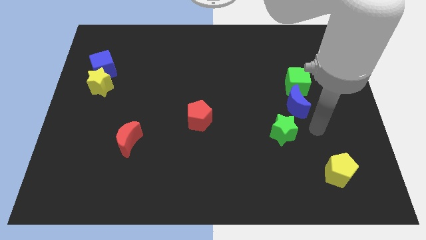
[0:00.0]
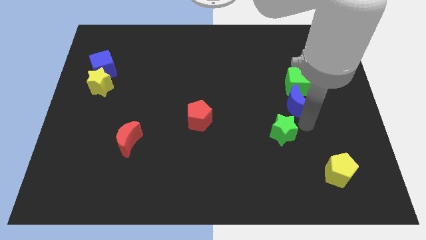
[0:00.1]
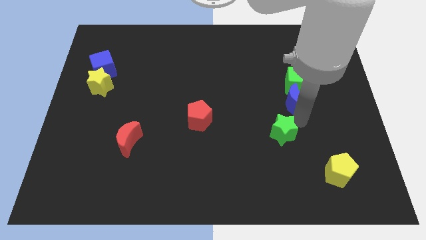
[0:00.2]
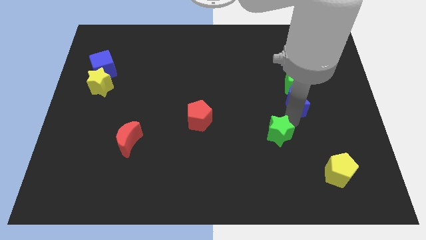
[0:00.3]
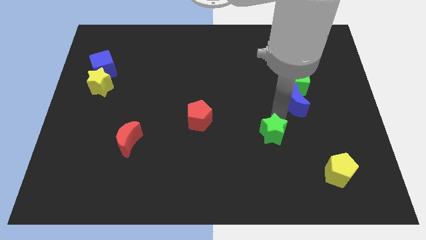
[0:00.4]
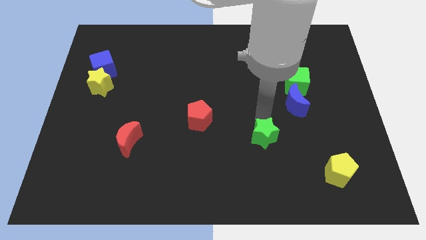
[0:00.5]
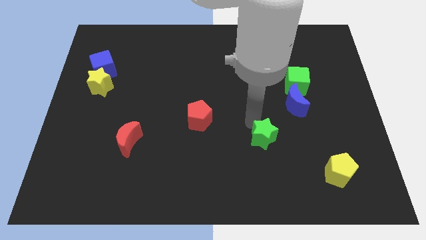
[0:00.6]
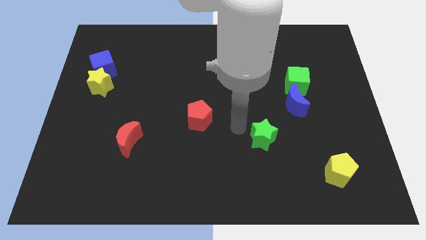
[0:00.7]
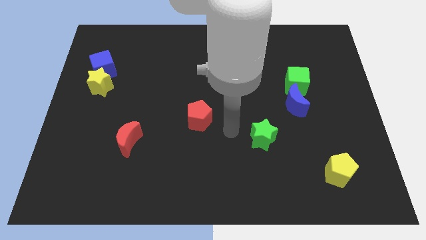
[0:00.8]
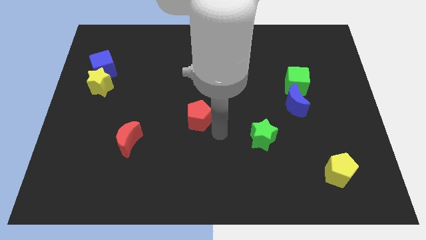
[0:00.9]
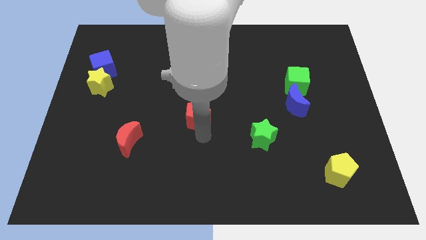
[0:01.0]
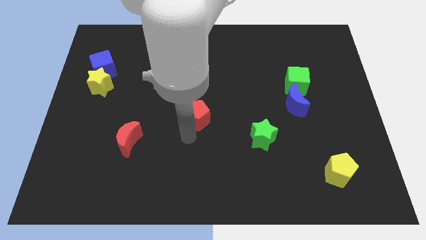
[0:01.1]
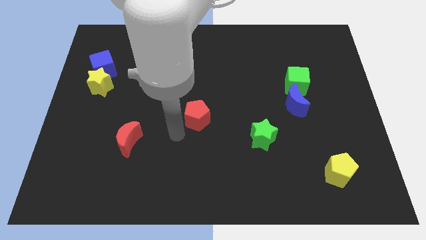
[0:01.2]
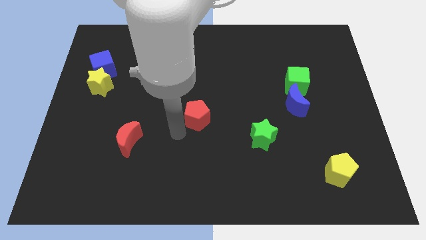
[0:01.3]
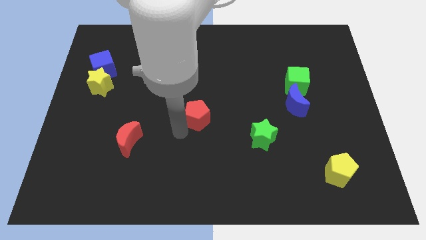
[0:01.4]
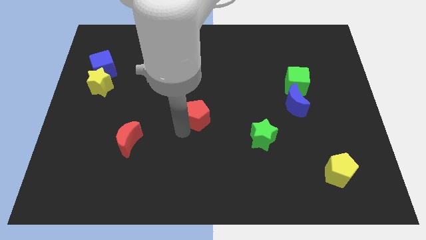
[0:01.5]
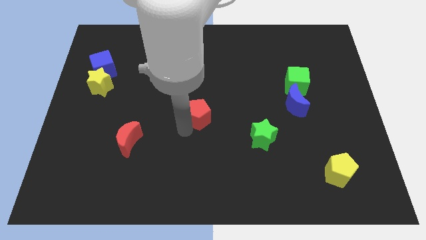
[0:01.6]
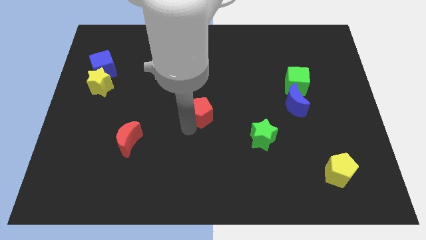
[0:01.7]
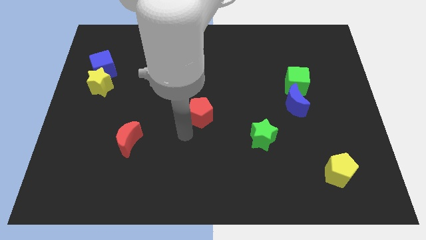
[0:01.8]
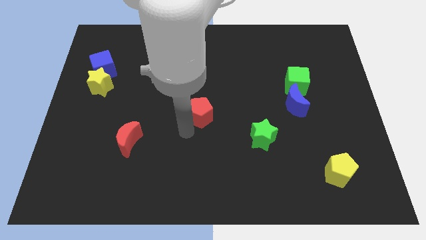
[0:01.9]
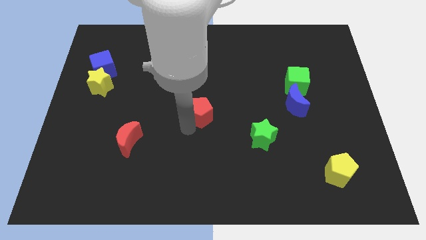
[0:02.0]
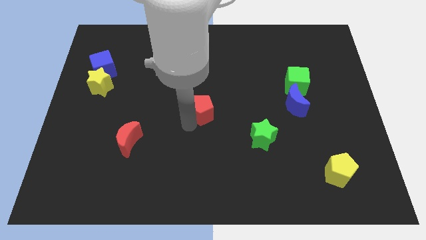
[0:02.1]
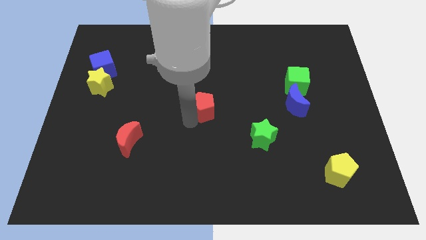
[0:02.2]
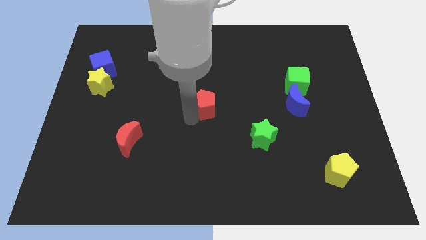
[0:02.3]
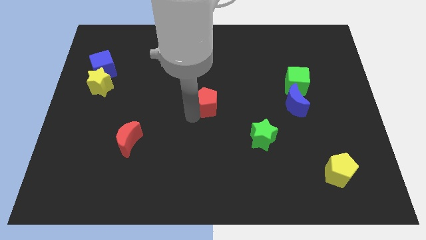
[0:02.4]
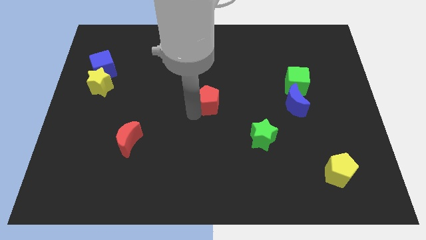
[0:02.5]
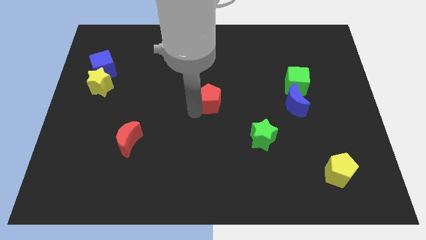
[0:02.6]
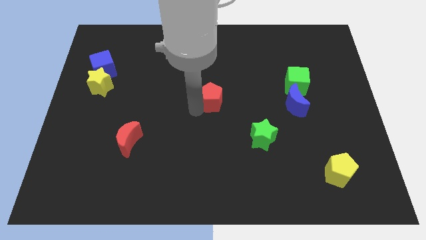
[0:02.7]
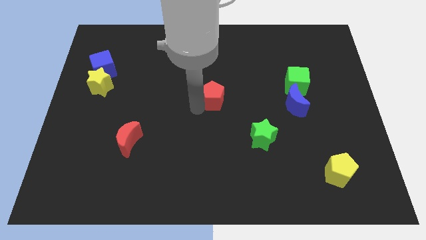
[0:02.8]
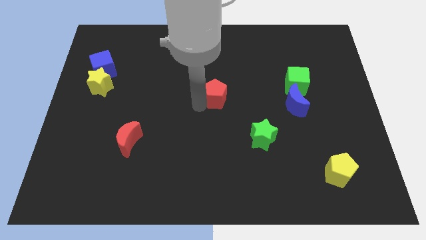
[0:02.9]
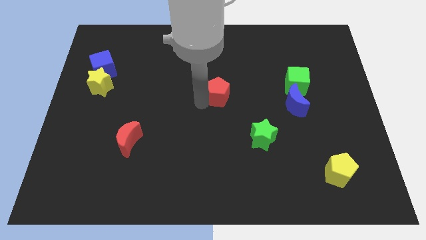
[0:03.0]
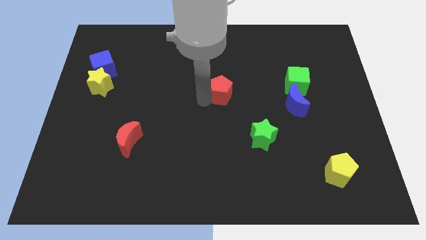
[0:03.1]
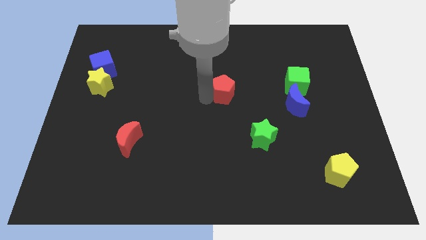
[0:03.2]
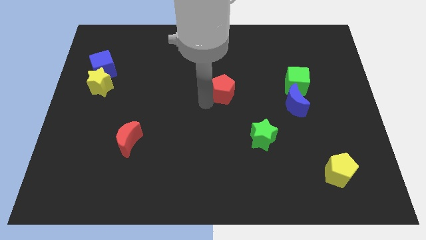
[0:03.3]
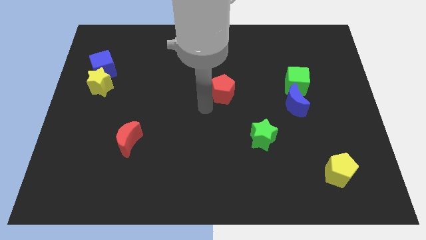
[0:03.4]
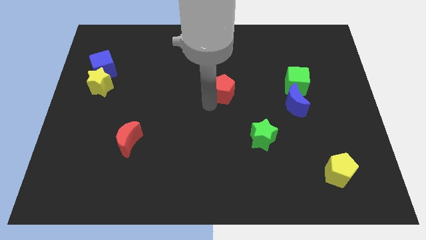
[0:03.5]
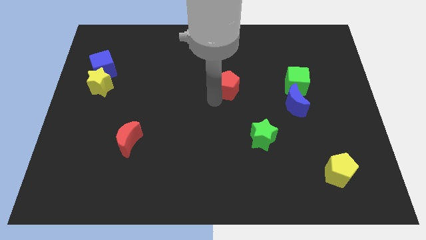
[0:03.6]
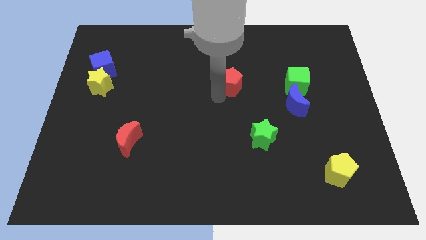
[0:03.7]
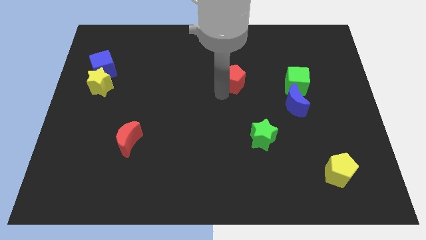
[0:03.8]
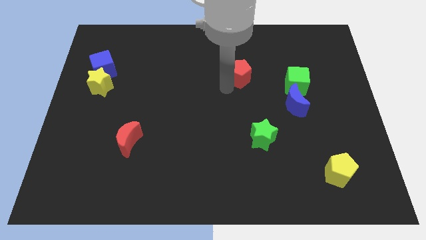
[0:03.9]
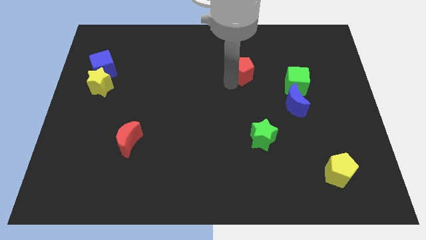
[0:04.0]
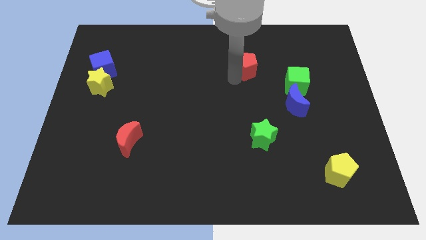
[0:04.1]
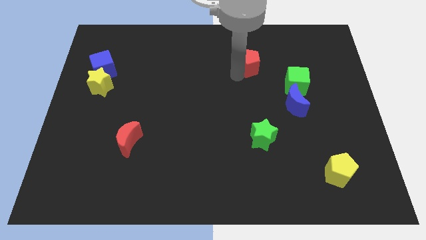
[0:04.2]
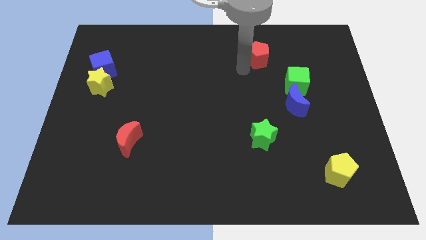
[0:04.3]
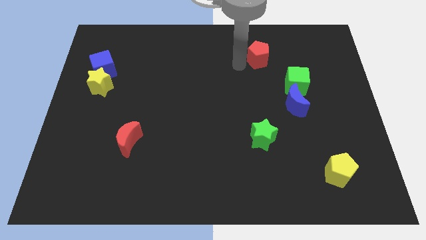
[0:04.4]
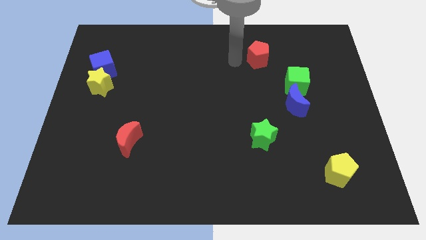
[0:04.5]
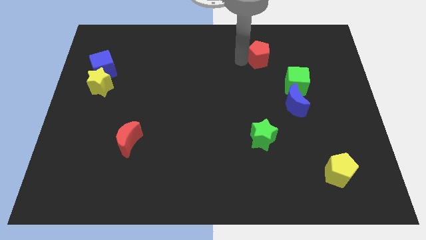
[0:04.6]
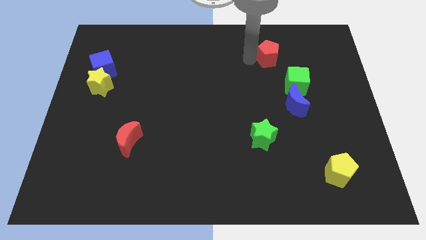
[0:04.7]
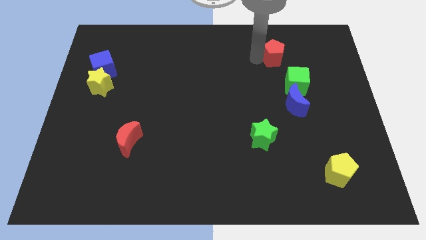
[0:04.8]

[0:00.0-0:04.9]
put the red pentagon to the top side of the green cube

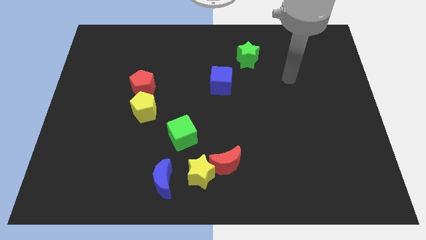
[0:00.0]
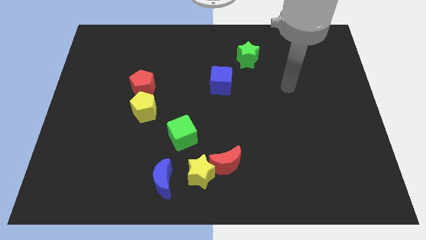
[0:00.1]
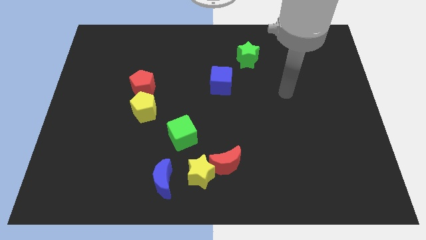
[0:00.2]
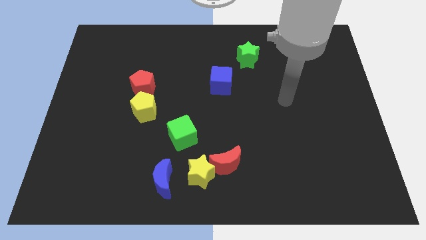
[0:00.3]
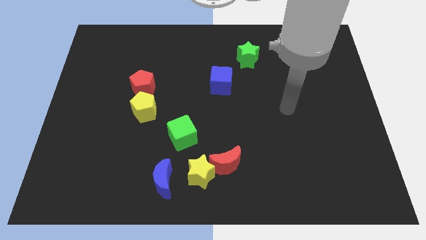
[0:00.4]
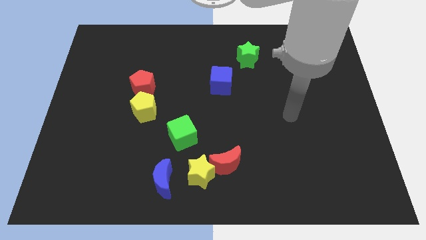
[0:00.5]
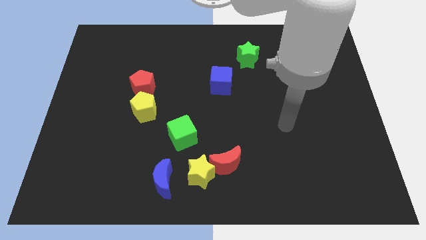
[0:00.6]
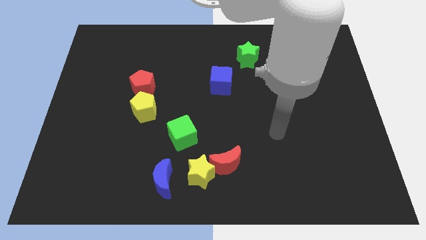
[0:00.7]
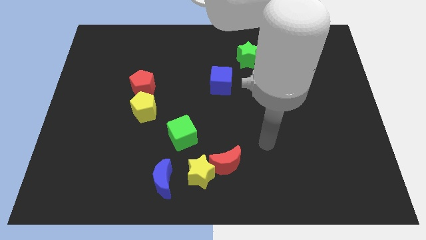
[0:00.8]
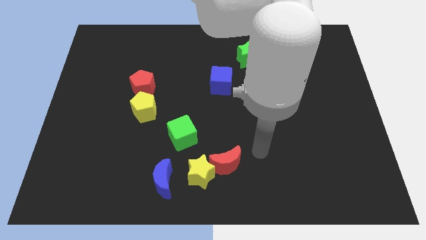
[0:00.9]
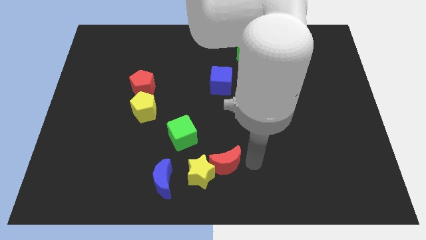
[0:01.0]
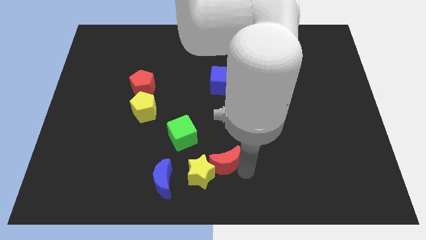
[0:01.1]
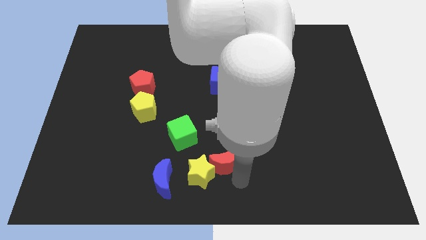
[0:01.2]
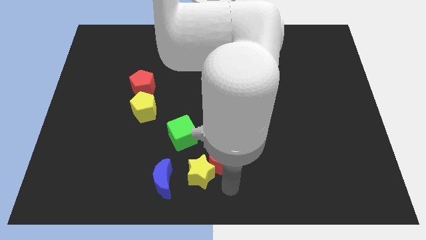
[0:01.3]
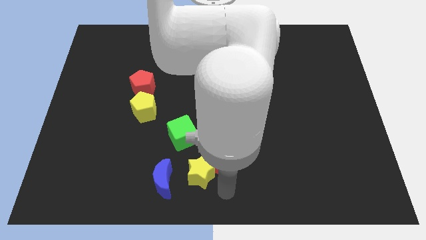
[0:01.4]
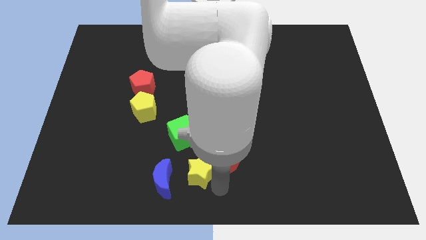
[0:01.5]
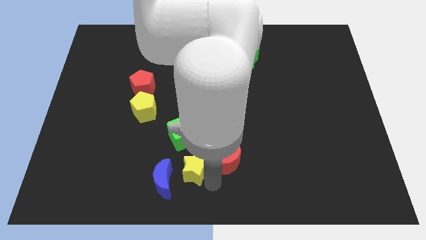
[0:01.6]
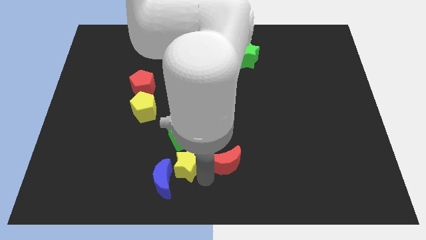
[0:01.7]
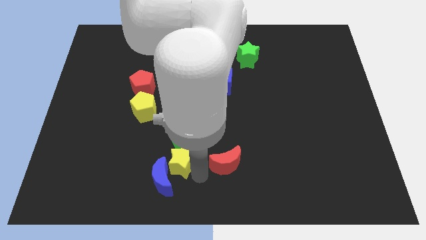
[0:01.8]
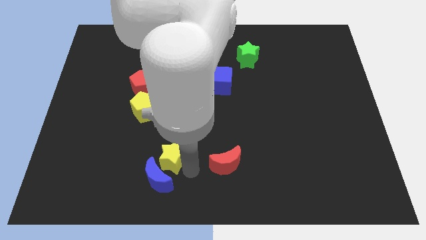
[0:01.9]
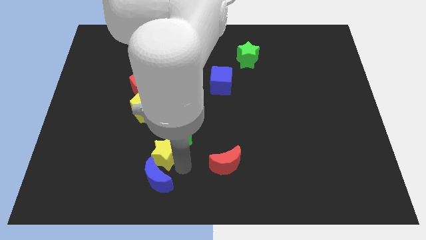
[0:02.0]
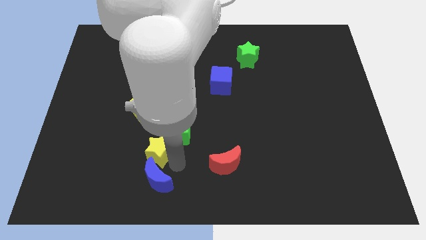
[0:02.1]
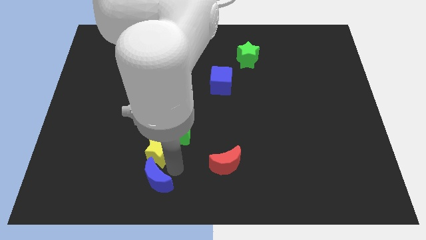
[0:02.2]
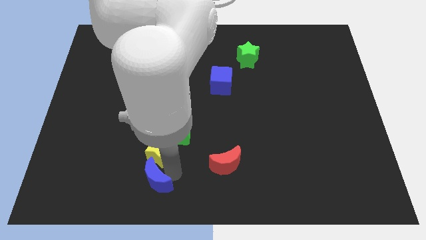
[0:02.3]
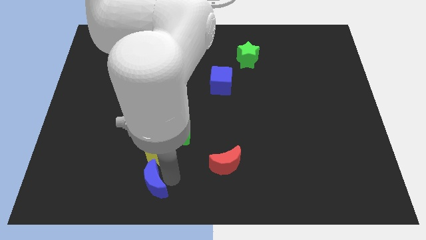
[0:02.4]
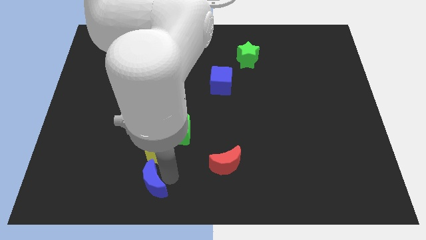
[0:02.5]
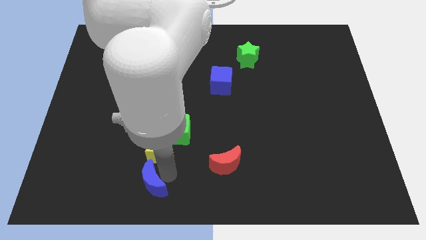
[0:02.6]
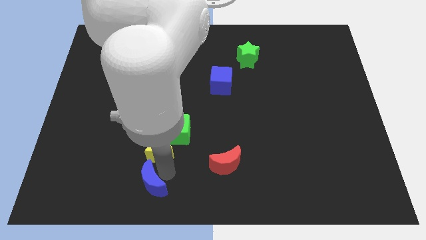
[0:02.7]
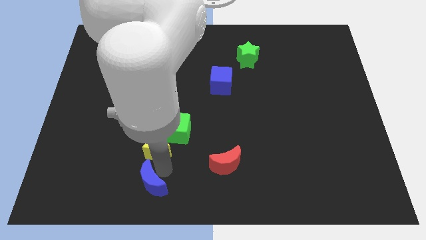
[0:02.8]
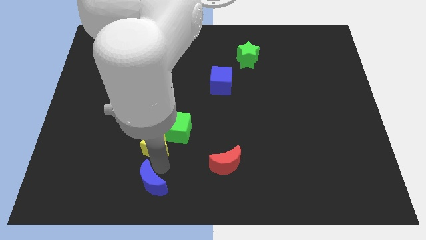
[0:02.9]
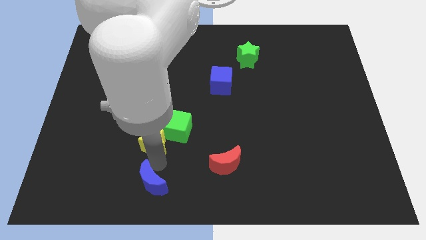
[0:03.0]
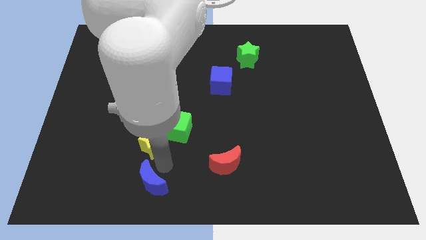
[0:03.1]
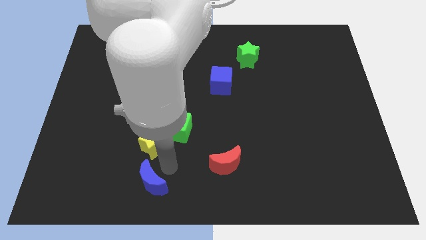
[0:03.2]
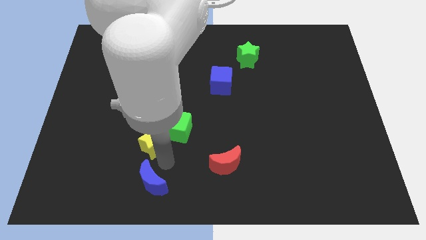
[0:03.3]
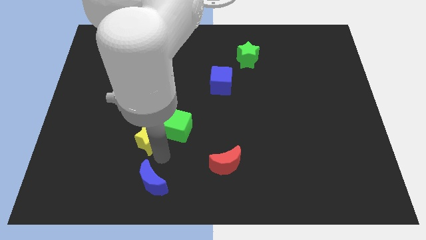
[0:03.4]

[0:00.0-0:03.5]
put the yellow star to the bottom of the red pentagon
